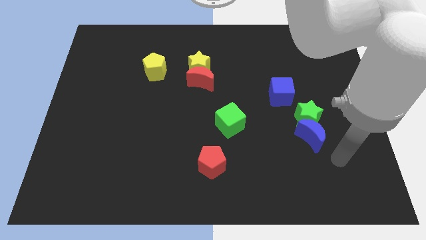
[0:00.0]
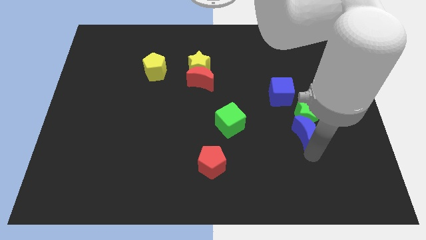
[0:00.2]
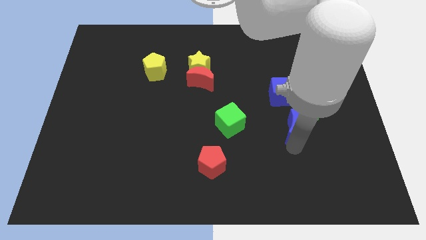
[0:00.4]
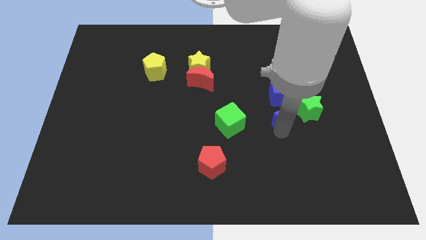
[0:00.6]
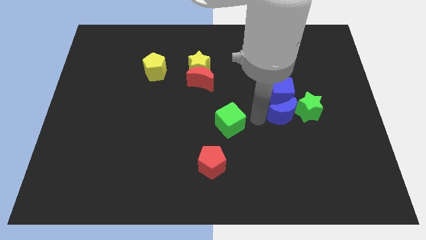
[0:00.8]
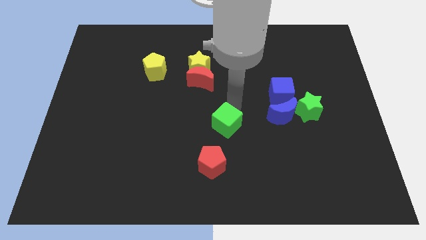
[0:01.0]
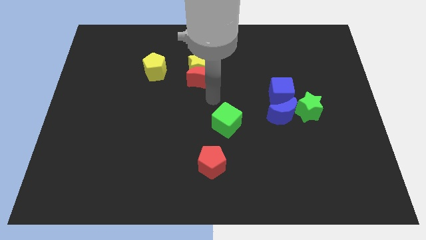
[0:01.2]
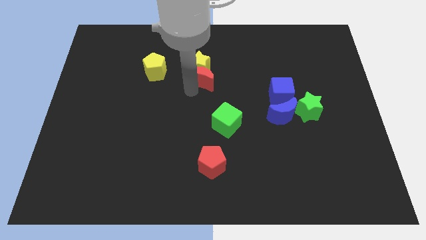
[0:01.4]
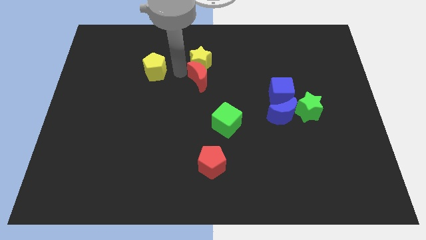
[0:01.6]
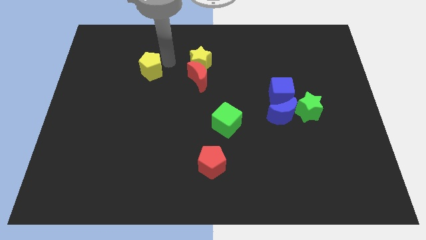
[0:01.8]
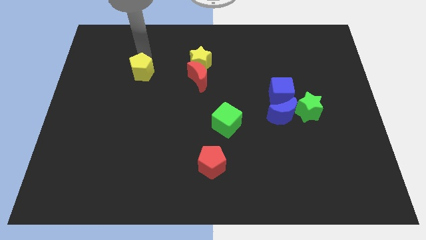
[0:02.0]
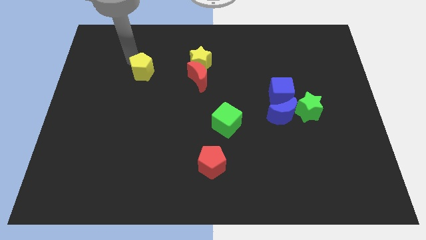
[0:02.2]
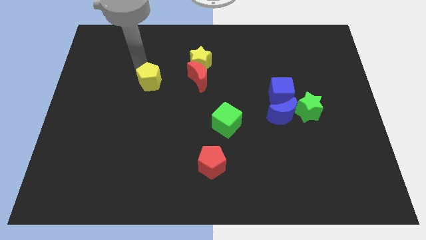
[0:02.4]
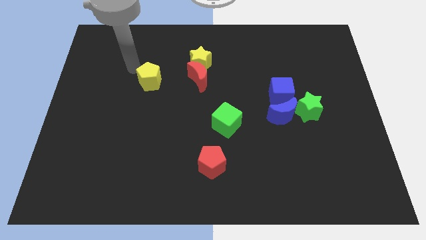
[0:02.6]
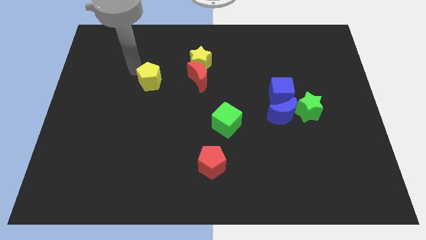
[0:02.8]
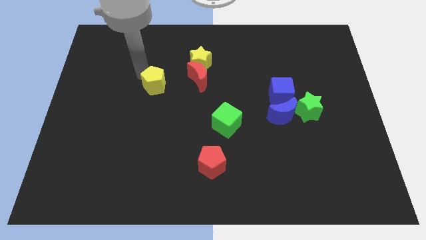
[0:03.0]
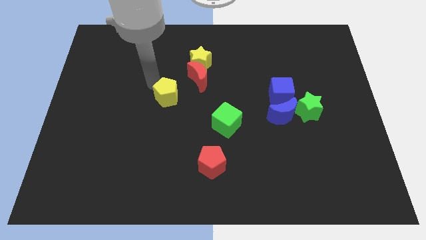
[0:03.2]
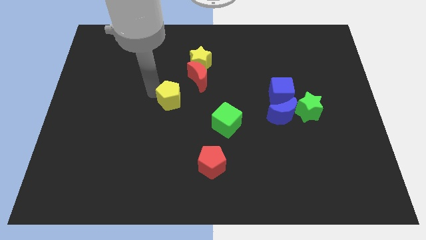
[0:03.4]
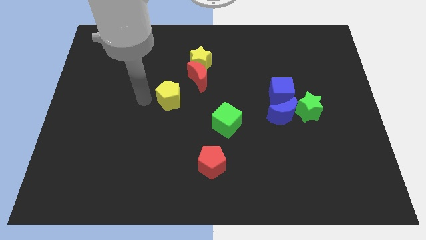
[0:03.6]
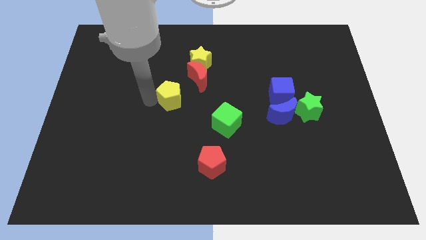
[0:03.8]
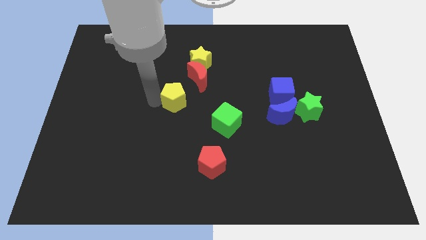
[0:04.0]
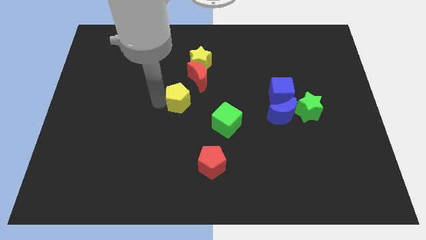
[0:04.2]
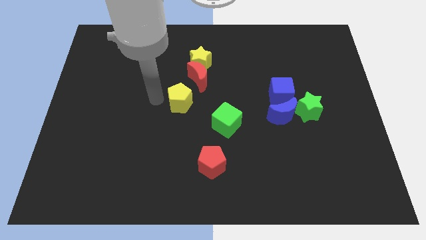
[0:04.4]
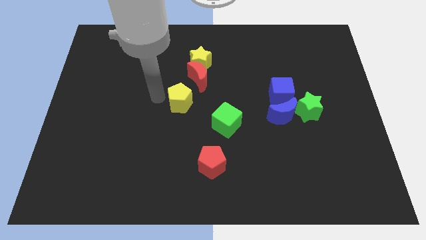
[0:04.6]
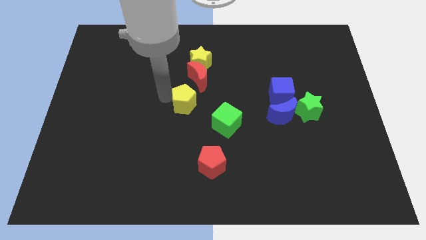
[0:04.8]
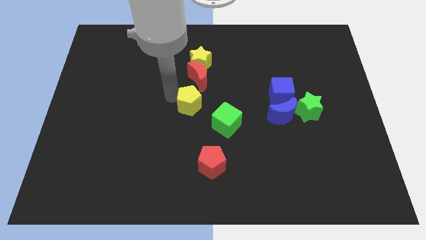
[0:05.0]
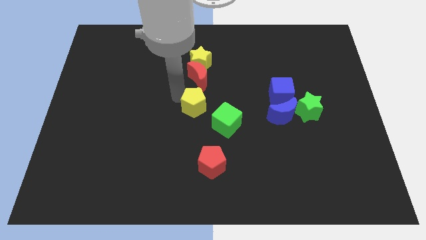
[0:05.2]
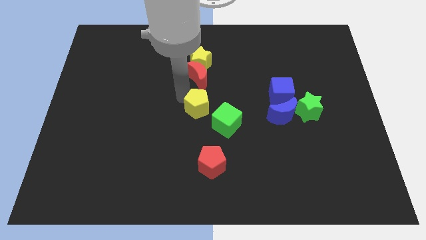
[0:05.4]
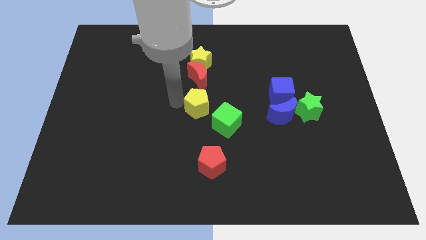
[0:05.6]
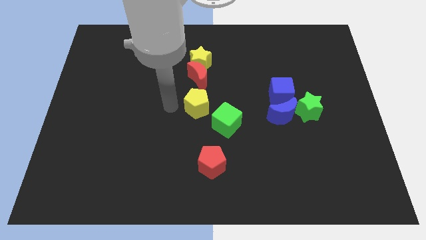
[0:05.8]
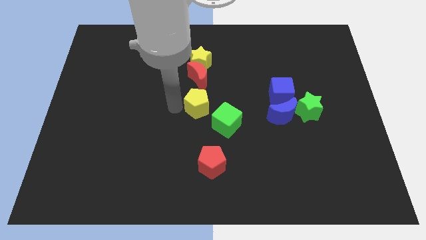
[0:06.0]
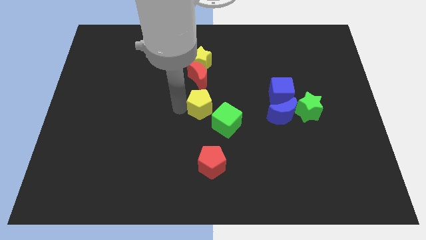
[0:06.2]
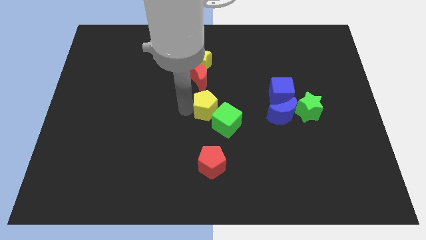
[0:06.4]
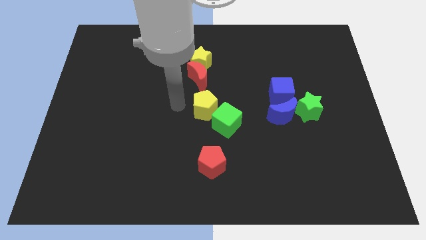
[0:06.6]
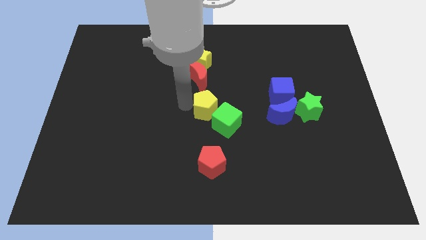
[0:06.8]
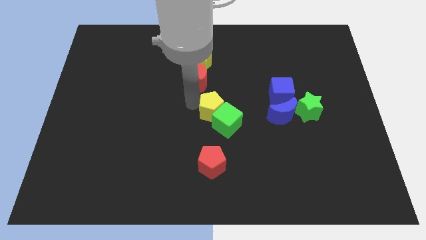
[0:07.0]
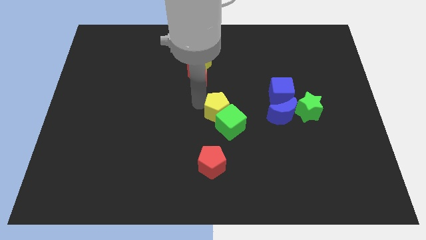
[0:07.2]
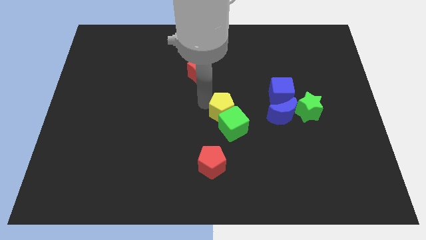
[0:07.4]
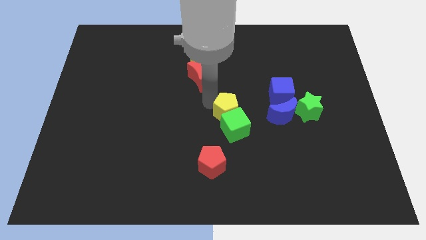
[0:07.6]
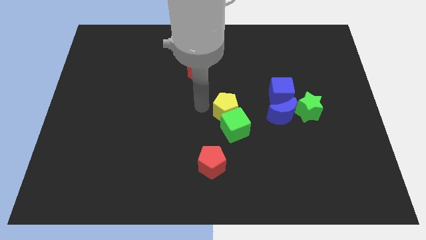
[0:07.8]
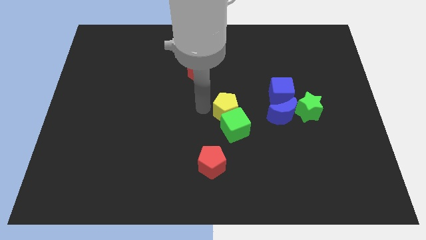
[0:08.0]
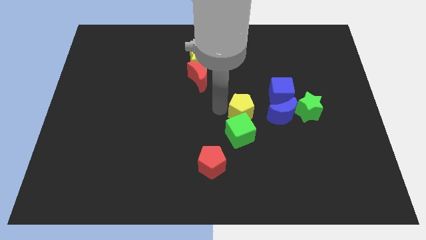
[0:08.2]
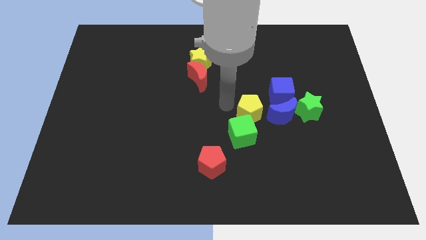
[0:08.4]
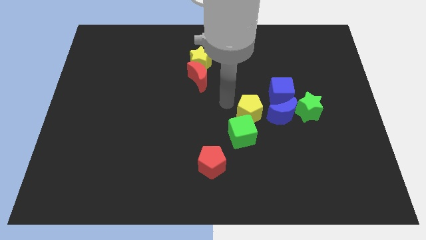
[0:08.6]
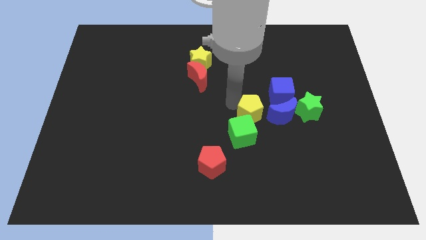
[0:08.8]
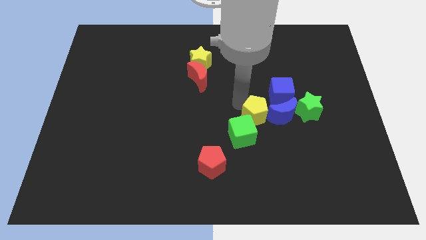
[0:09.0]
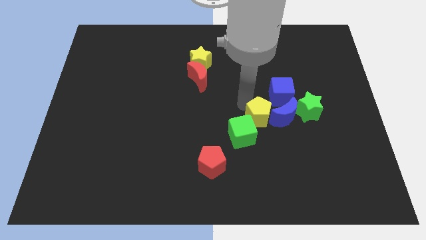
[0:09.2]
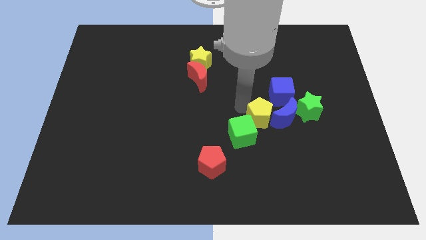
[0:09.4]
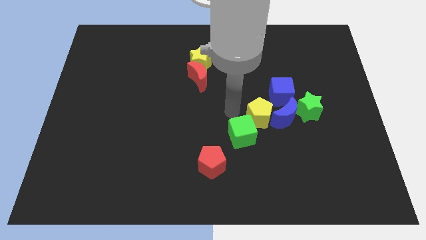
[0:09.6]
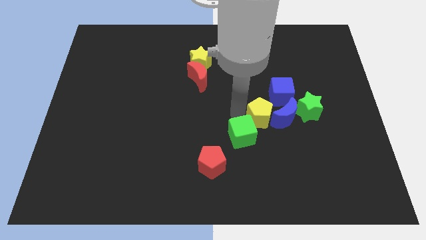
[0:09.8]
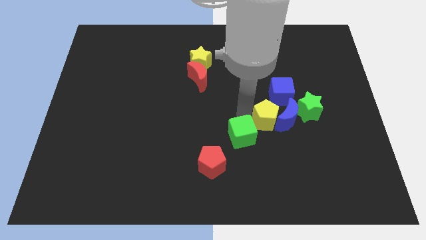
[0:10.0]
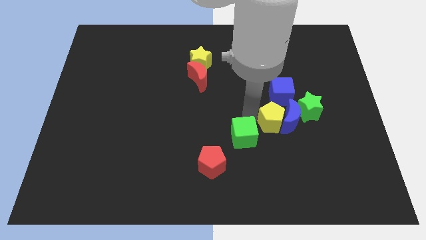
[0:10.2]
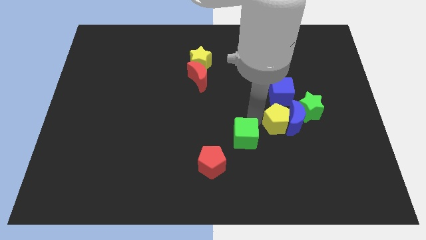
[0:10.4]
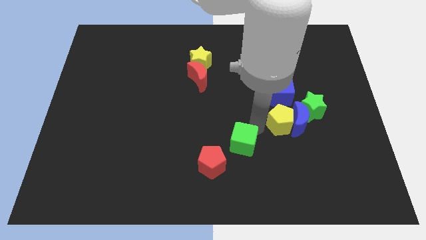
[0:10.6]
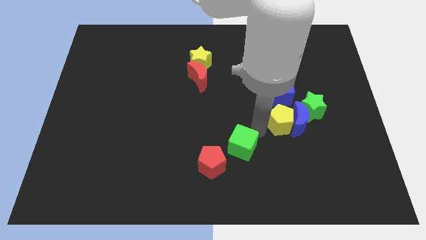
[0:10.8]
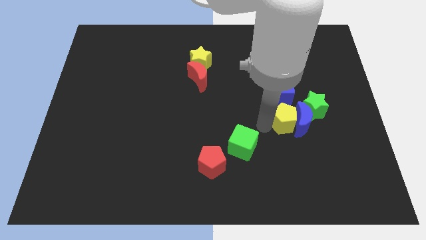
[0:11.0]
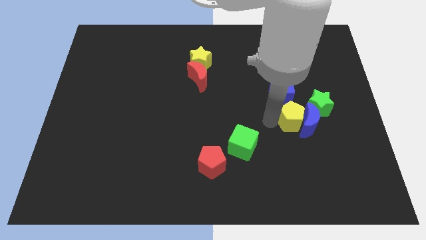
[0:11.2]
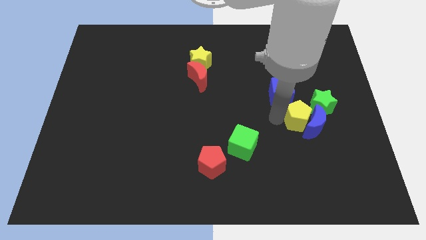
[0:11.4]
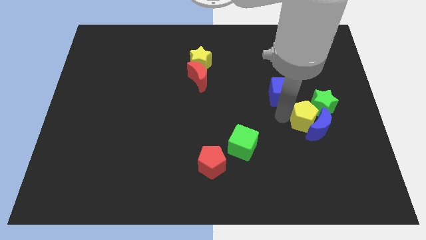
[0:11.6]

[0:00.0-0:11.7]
move the yellow pentagon to the green star

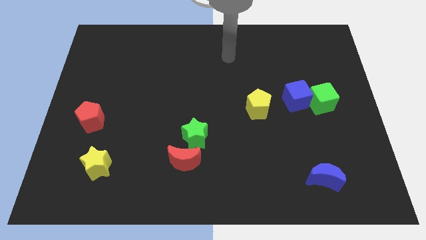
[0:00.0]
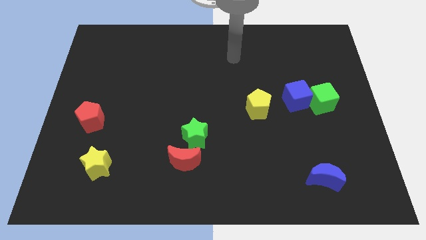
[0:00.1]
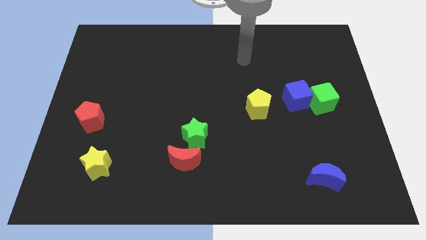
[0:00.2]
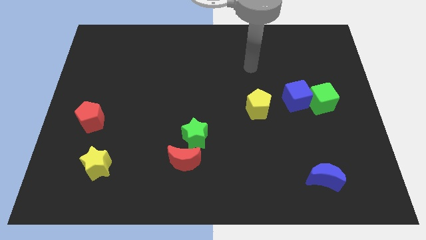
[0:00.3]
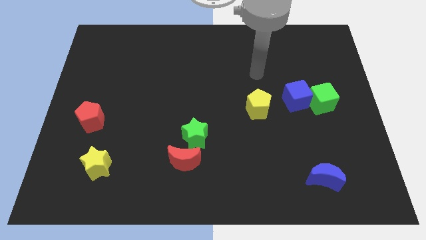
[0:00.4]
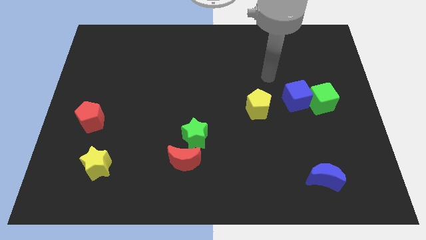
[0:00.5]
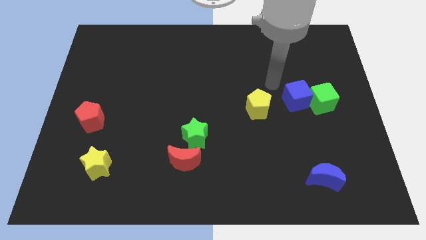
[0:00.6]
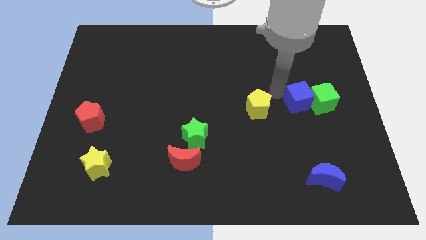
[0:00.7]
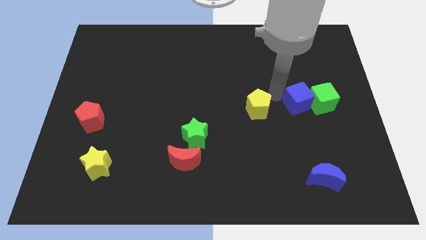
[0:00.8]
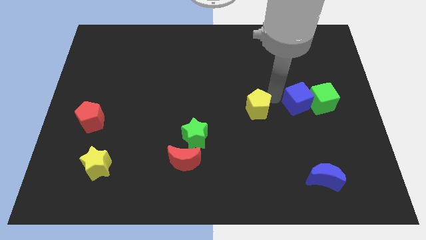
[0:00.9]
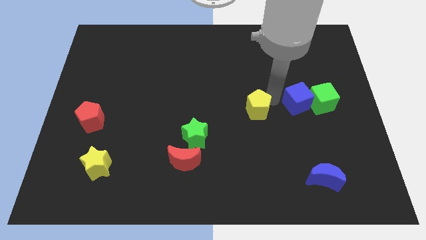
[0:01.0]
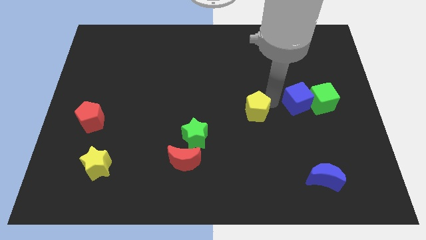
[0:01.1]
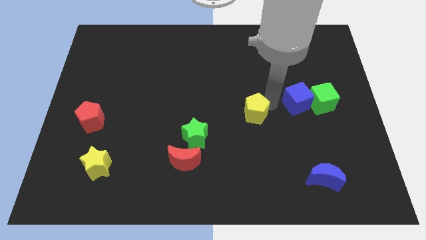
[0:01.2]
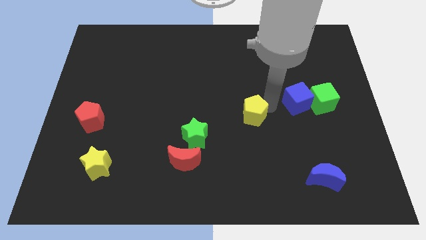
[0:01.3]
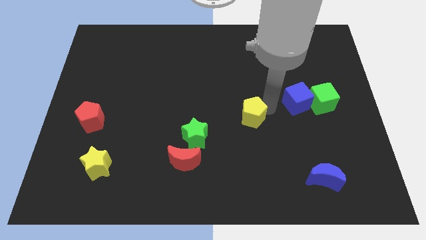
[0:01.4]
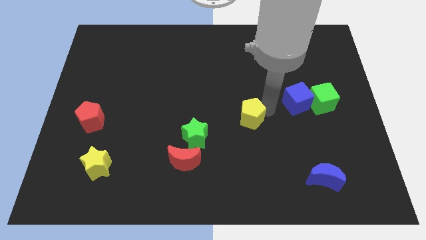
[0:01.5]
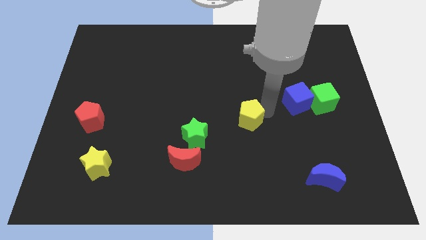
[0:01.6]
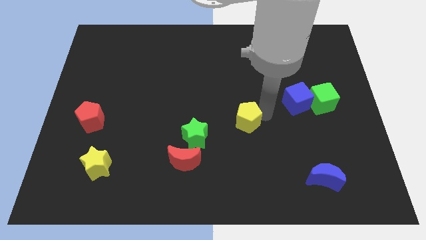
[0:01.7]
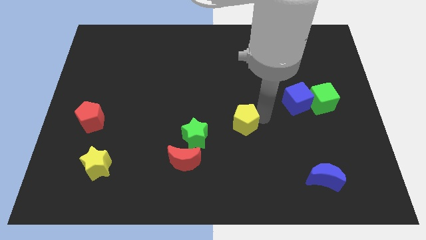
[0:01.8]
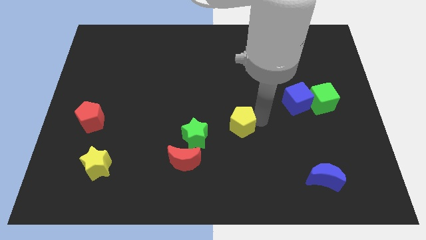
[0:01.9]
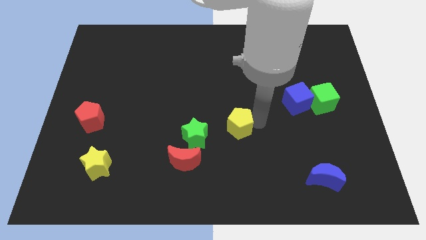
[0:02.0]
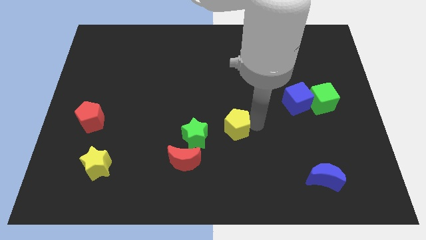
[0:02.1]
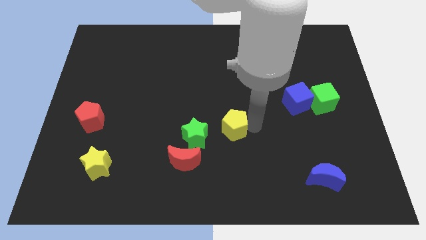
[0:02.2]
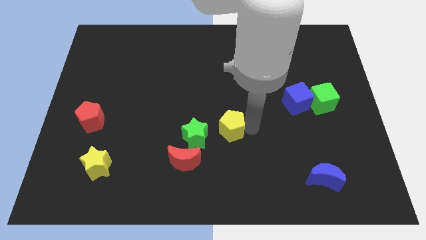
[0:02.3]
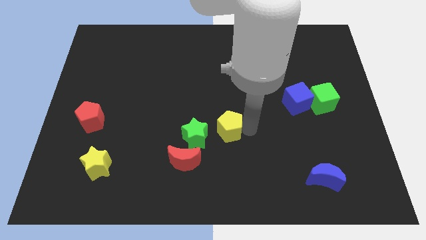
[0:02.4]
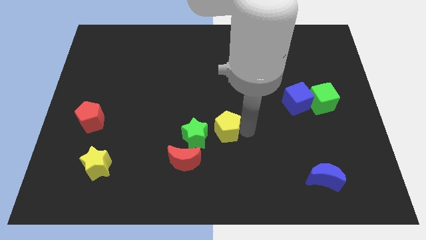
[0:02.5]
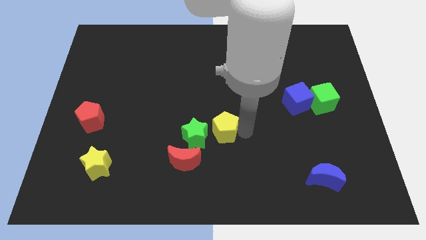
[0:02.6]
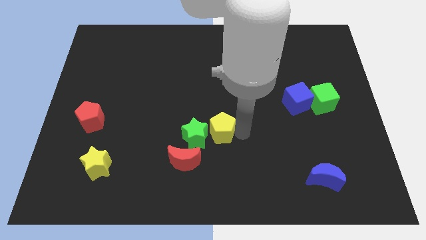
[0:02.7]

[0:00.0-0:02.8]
slide the yellow pentagon close to the green star
